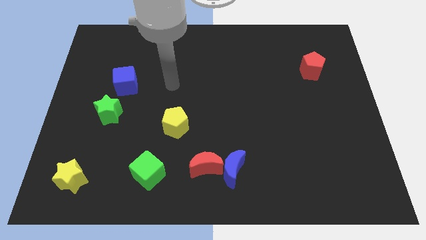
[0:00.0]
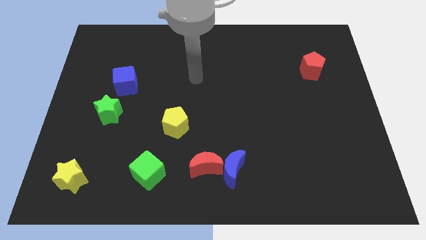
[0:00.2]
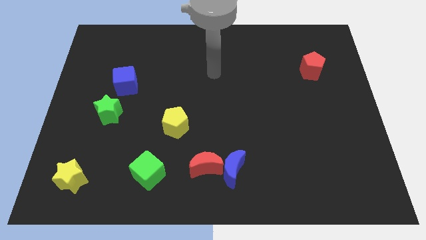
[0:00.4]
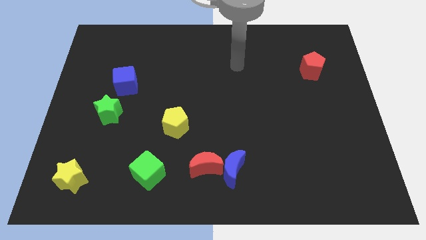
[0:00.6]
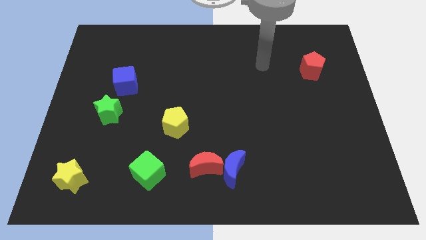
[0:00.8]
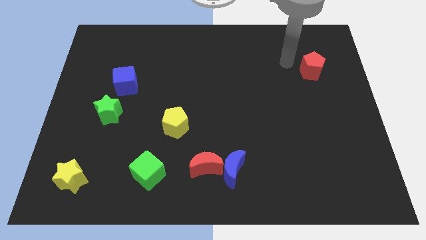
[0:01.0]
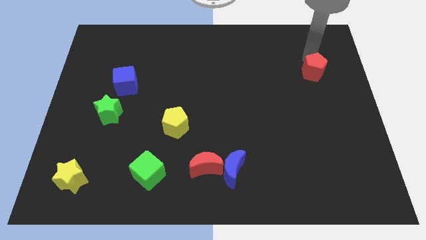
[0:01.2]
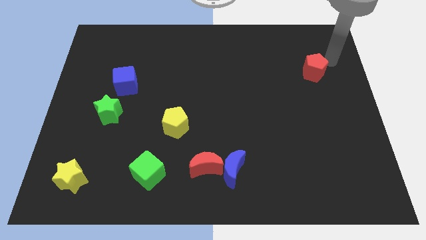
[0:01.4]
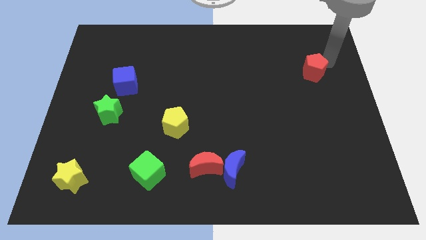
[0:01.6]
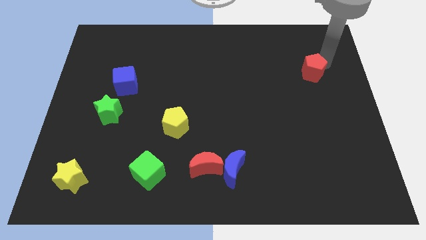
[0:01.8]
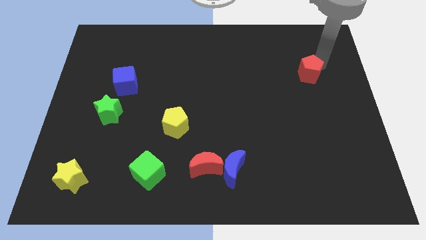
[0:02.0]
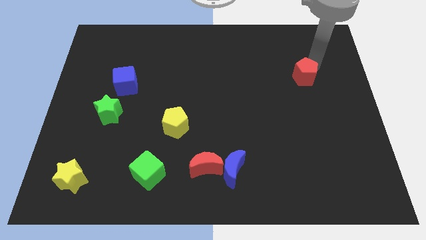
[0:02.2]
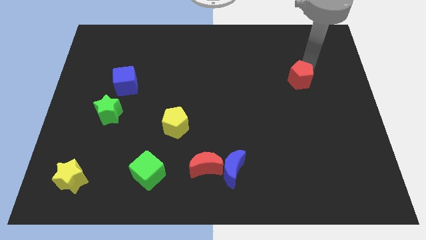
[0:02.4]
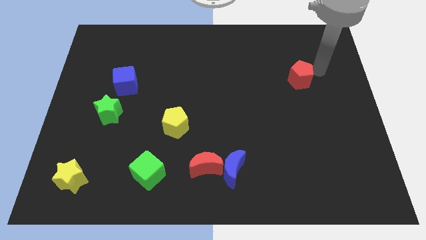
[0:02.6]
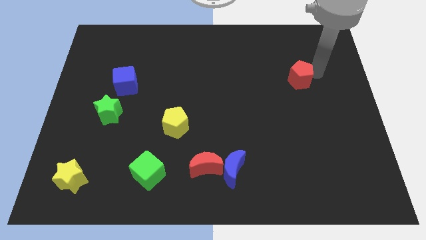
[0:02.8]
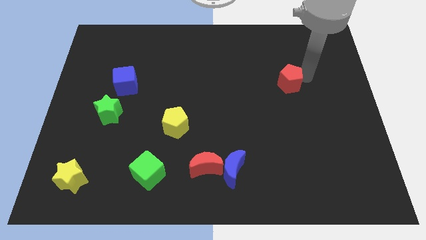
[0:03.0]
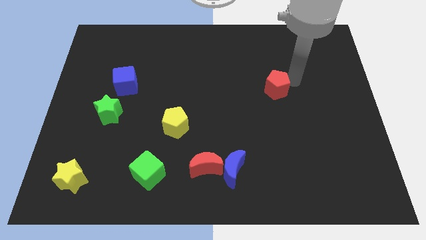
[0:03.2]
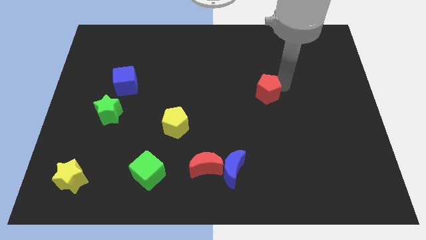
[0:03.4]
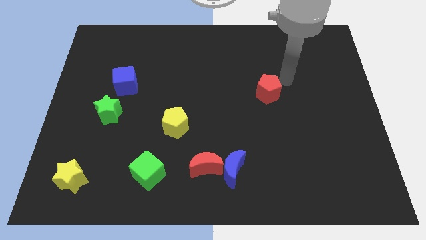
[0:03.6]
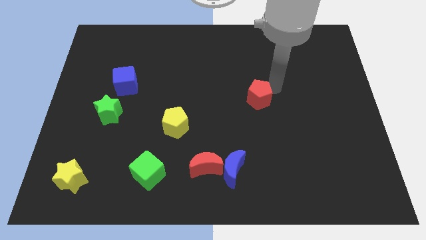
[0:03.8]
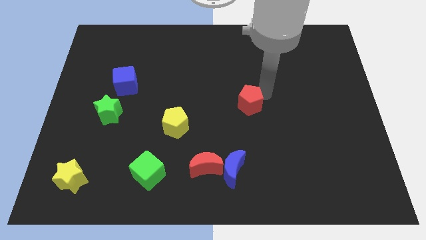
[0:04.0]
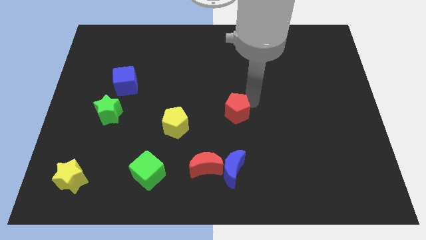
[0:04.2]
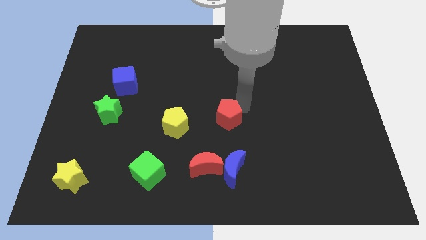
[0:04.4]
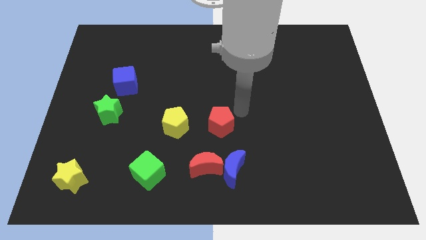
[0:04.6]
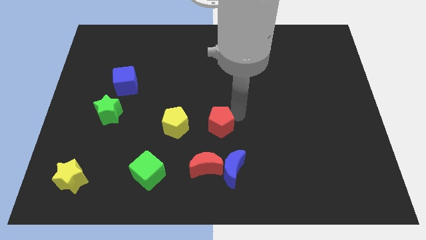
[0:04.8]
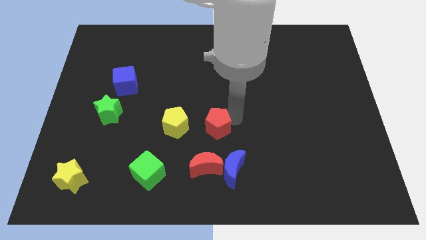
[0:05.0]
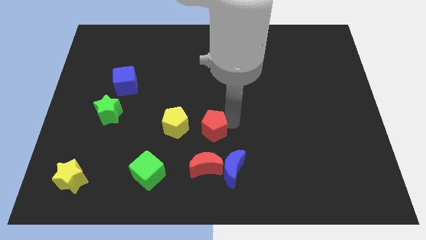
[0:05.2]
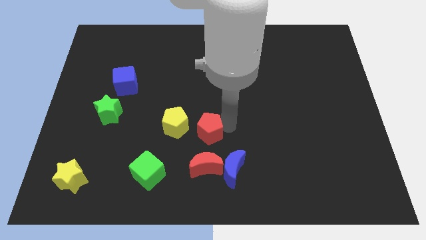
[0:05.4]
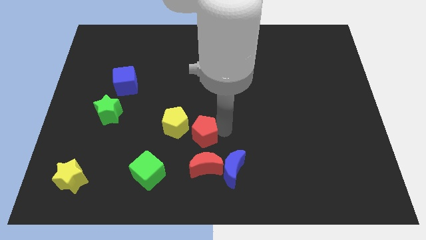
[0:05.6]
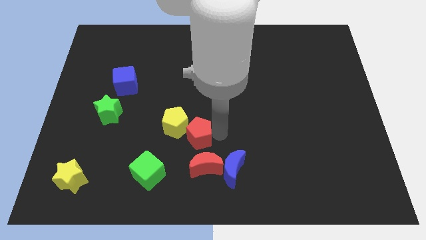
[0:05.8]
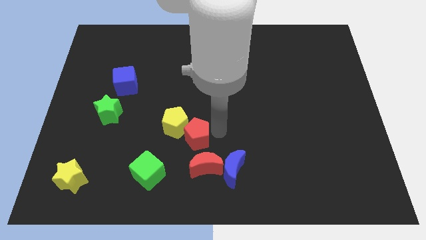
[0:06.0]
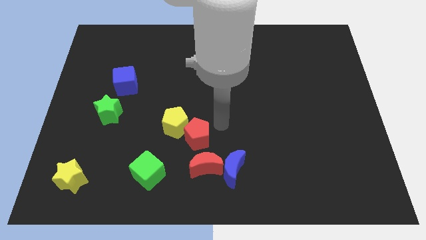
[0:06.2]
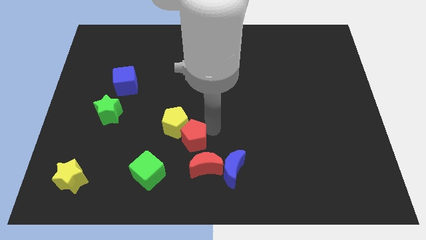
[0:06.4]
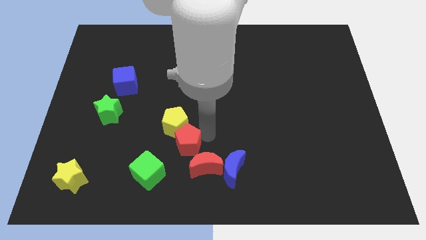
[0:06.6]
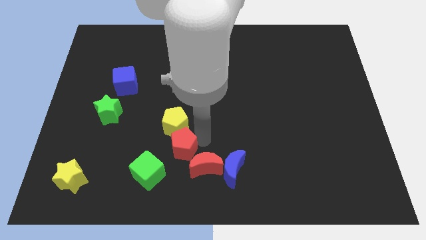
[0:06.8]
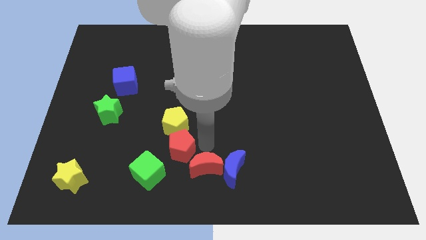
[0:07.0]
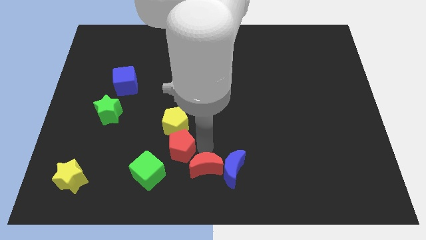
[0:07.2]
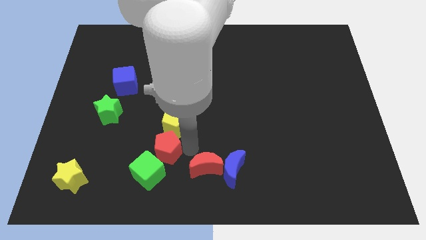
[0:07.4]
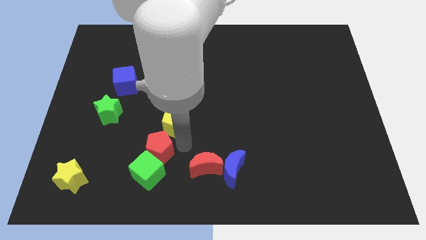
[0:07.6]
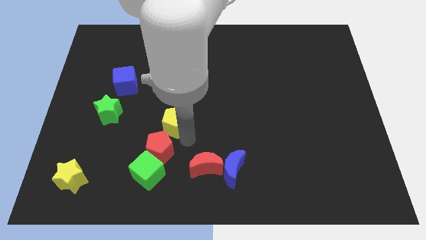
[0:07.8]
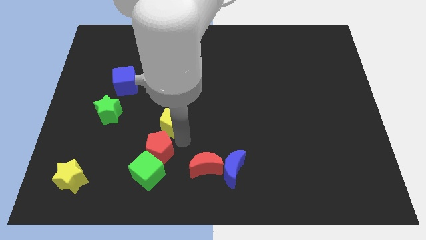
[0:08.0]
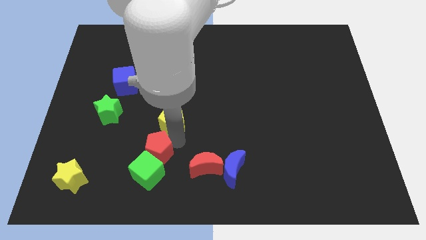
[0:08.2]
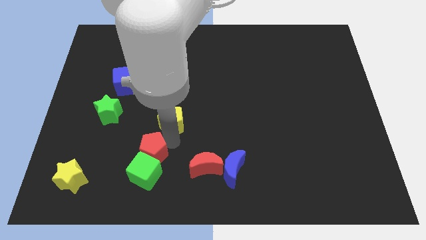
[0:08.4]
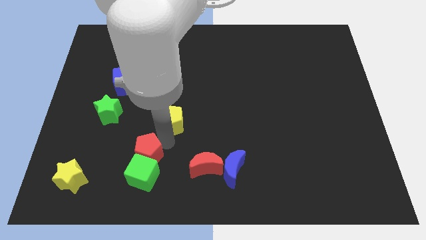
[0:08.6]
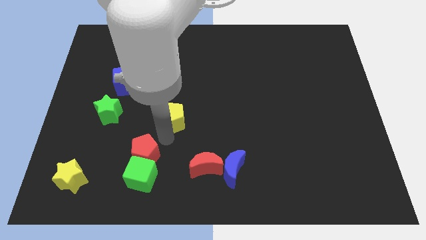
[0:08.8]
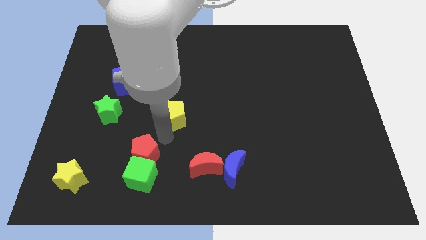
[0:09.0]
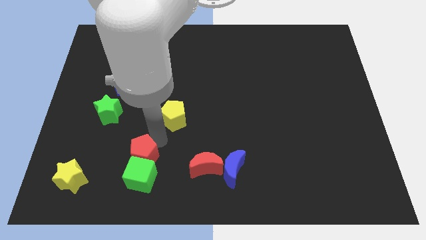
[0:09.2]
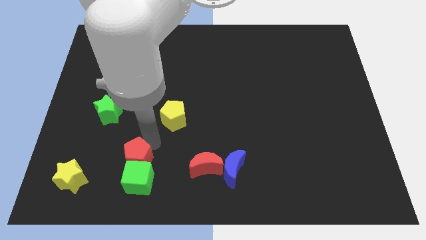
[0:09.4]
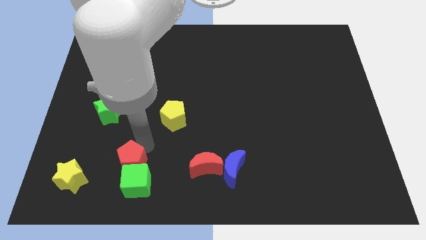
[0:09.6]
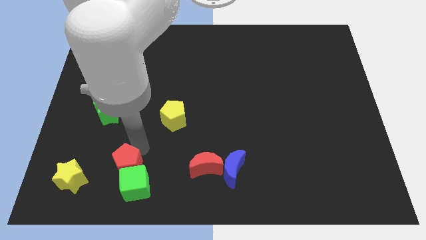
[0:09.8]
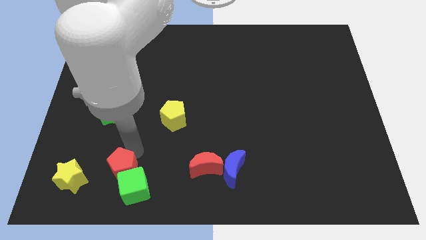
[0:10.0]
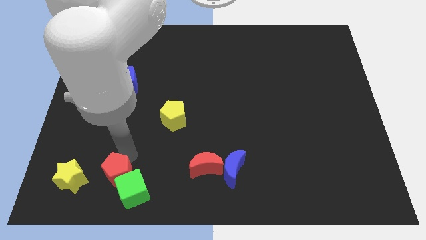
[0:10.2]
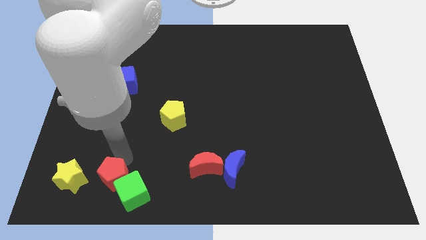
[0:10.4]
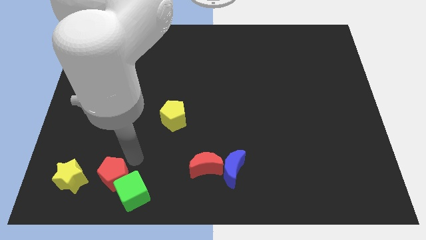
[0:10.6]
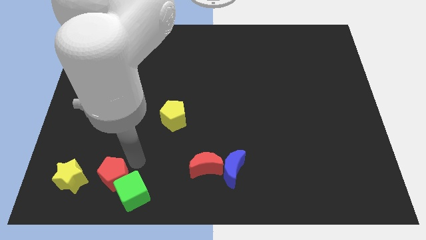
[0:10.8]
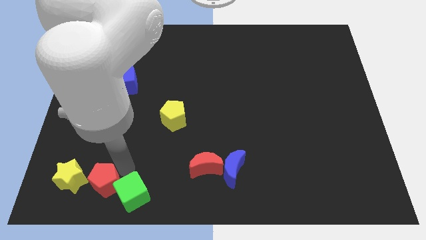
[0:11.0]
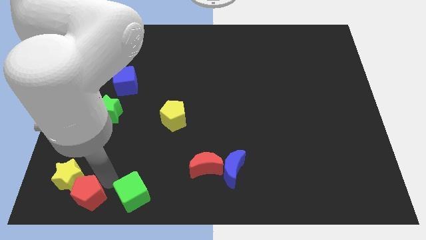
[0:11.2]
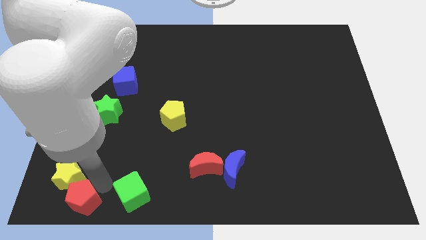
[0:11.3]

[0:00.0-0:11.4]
put the red pentagon to the bottom left corner

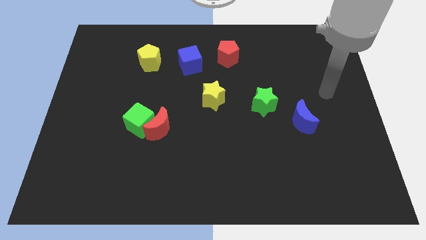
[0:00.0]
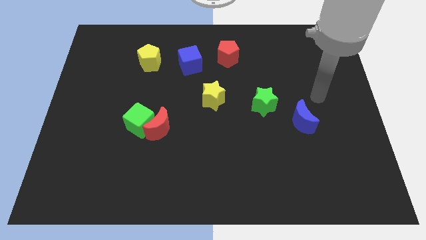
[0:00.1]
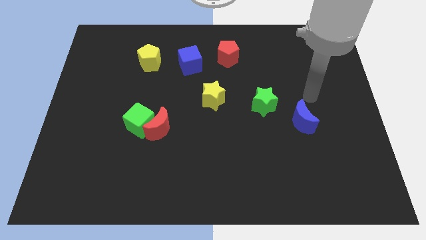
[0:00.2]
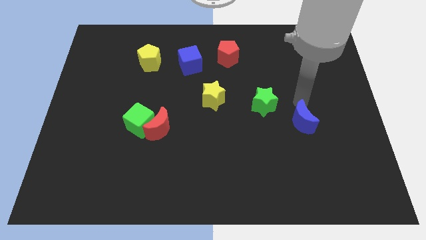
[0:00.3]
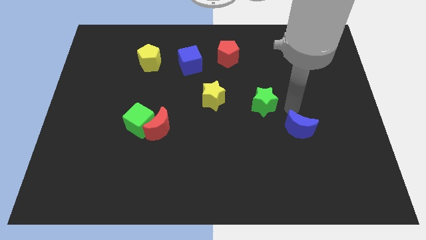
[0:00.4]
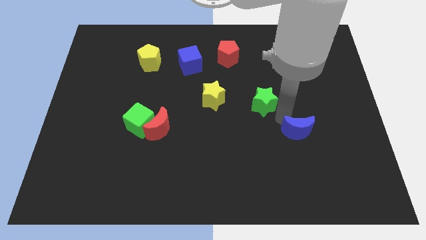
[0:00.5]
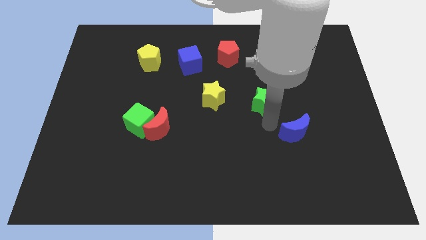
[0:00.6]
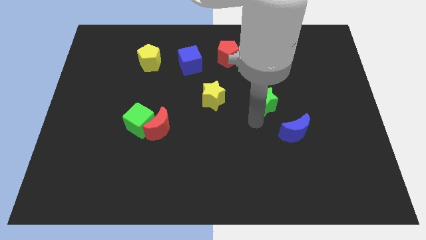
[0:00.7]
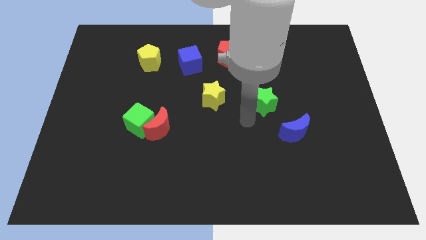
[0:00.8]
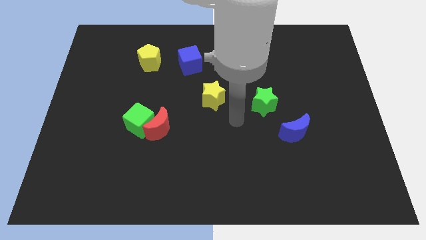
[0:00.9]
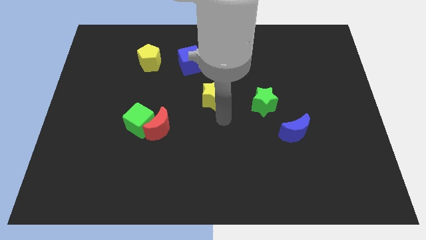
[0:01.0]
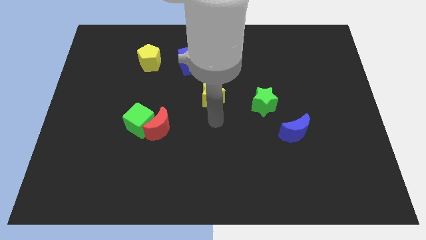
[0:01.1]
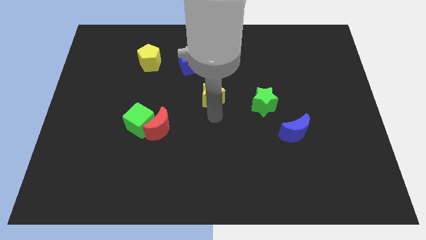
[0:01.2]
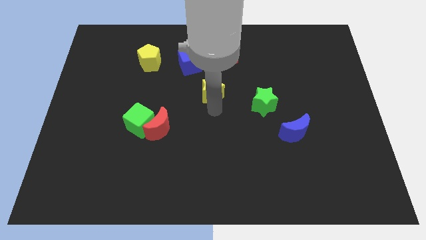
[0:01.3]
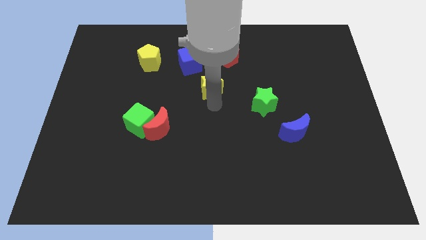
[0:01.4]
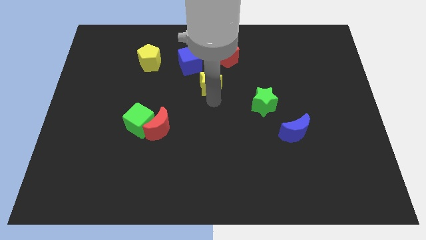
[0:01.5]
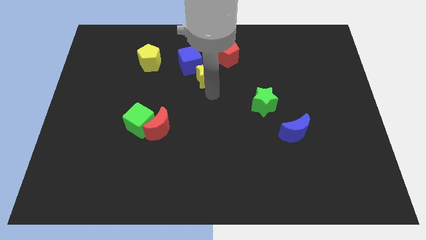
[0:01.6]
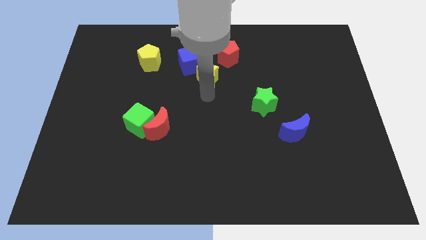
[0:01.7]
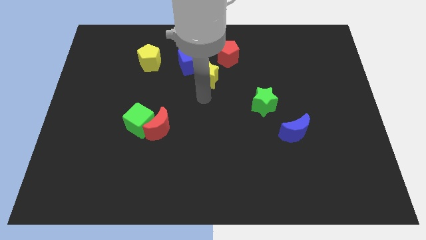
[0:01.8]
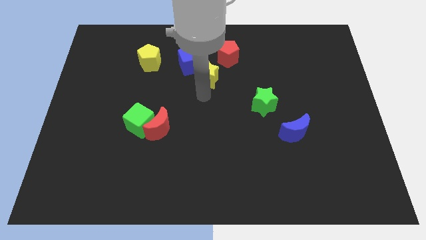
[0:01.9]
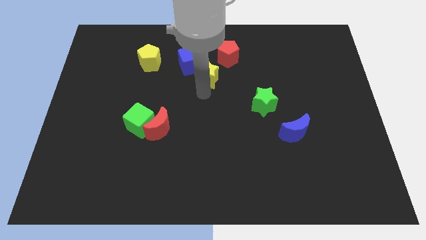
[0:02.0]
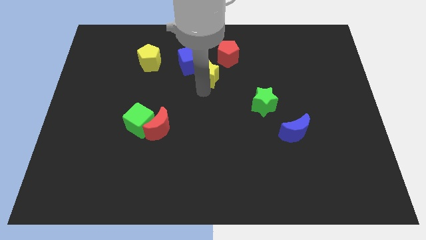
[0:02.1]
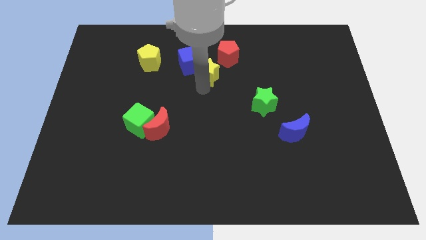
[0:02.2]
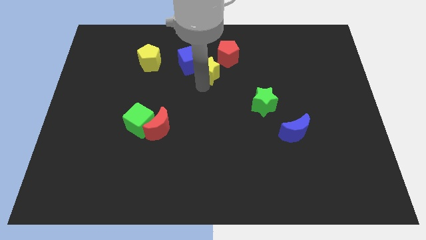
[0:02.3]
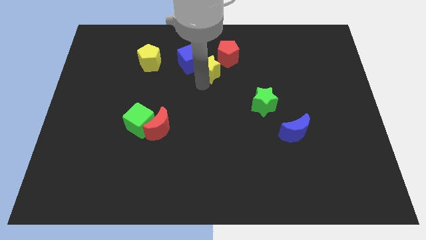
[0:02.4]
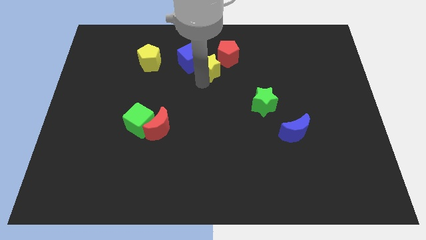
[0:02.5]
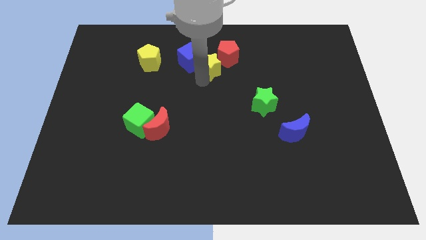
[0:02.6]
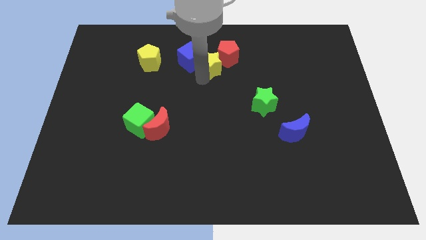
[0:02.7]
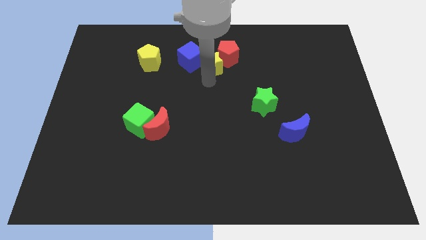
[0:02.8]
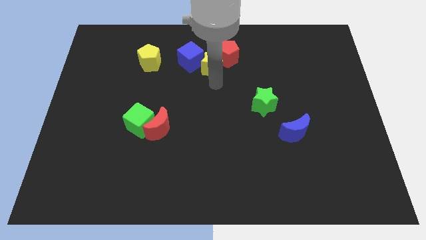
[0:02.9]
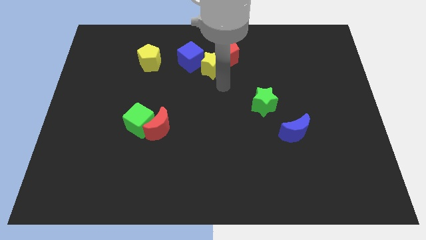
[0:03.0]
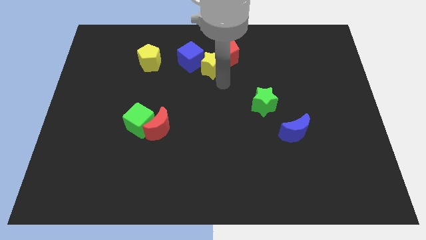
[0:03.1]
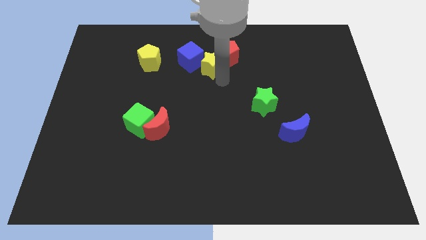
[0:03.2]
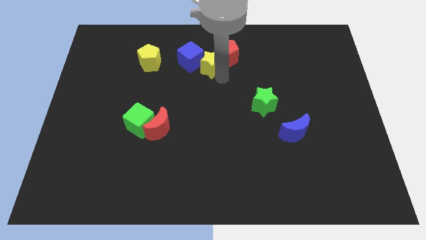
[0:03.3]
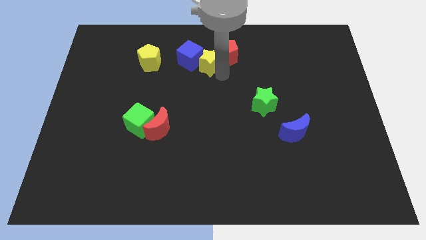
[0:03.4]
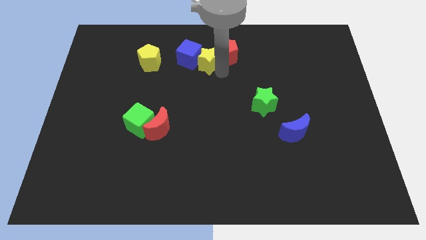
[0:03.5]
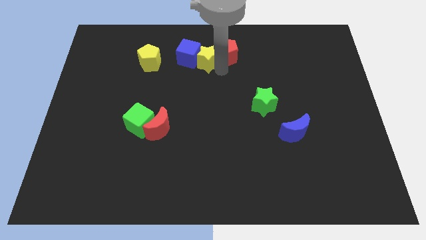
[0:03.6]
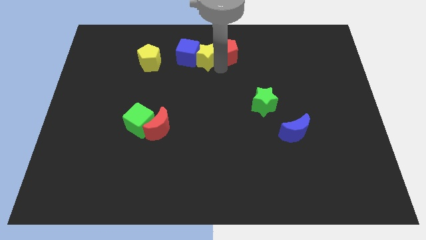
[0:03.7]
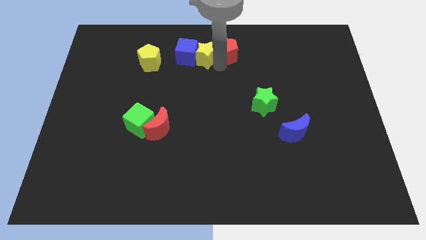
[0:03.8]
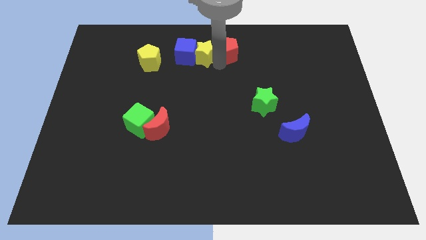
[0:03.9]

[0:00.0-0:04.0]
slide the yellow star to the top
